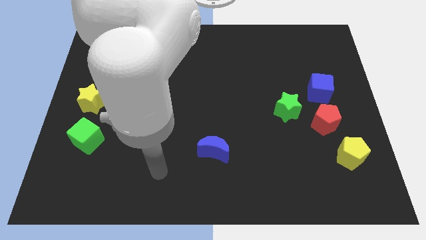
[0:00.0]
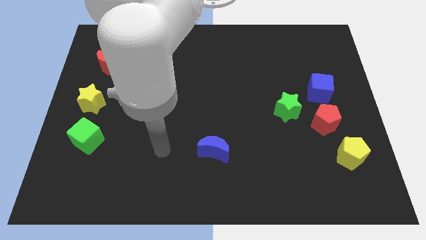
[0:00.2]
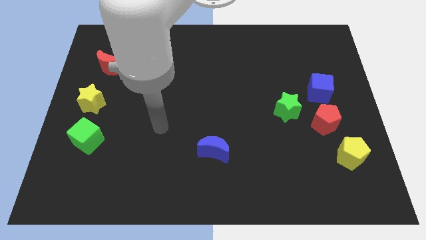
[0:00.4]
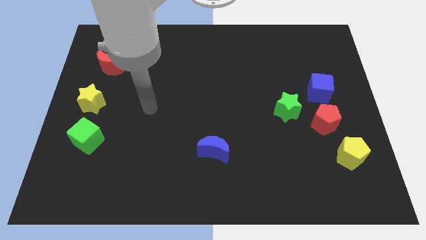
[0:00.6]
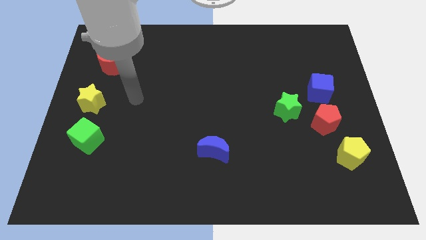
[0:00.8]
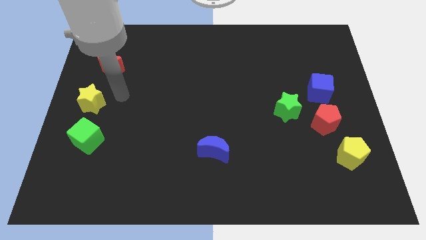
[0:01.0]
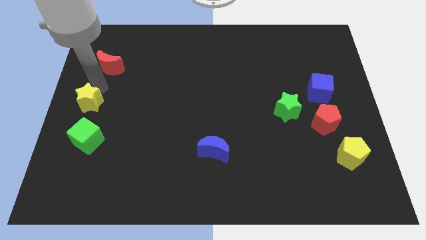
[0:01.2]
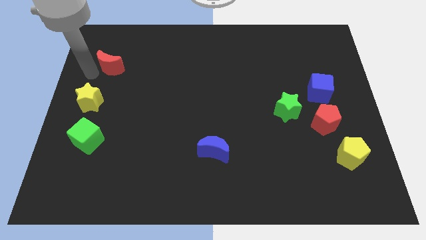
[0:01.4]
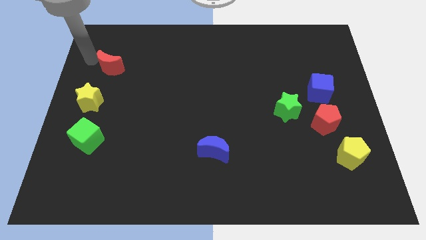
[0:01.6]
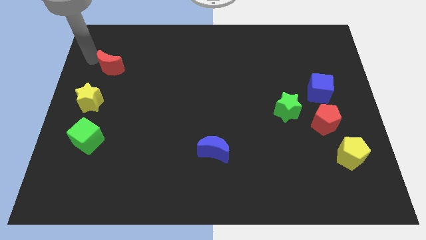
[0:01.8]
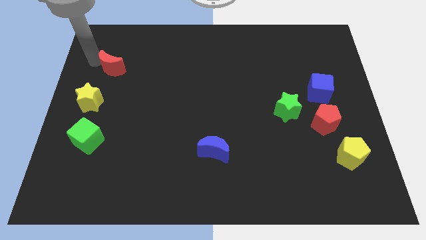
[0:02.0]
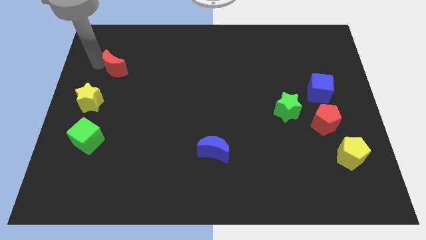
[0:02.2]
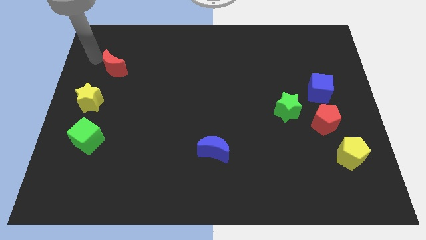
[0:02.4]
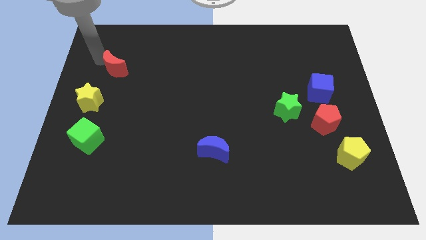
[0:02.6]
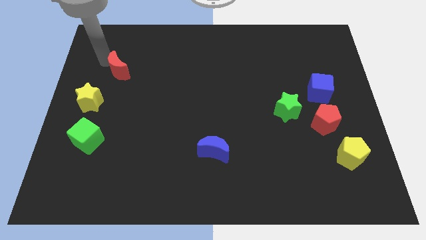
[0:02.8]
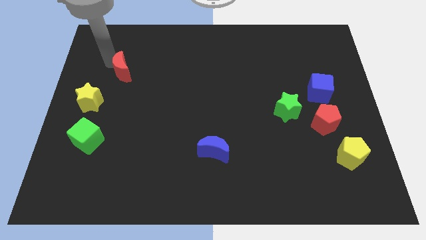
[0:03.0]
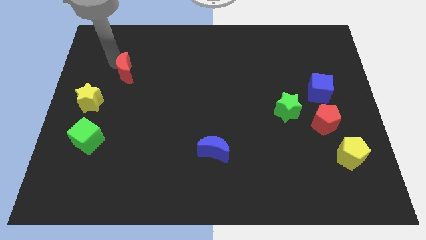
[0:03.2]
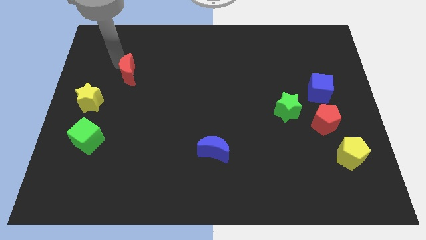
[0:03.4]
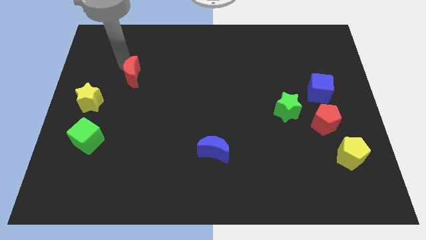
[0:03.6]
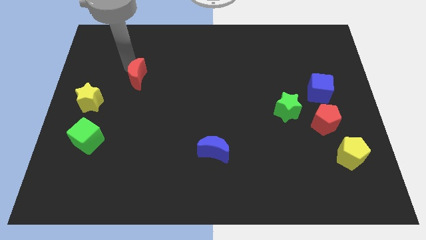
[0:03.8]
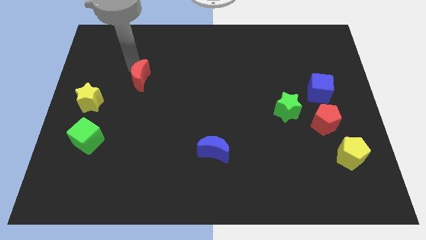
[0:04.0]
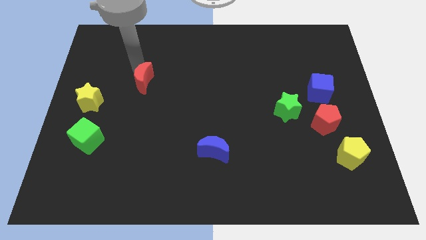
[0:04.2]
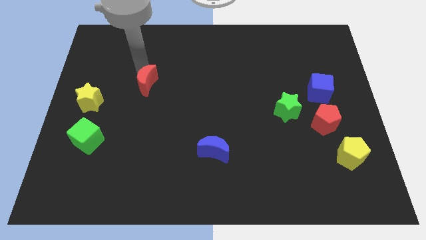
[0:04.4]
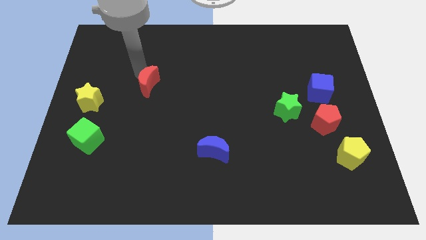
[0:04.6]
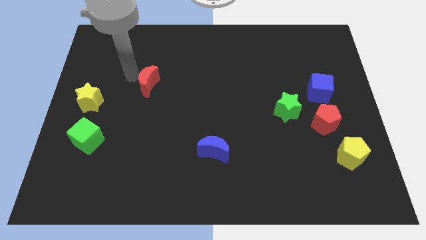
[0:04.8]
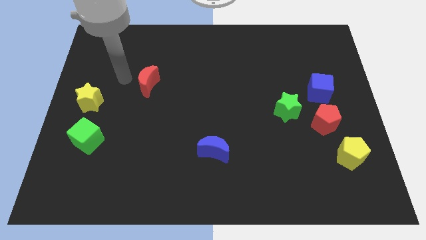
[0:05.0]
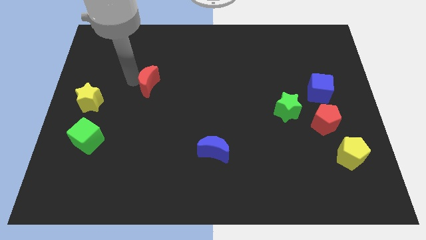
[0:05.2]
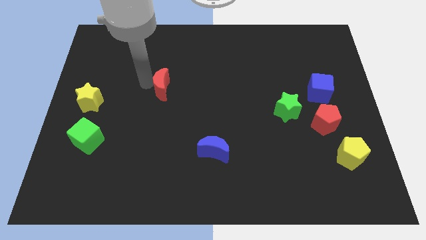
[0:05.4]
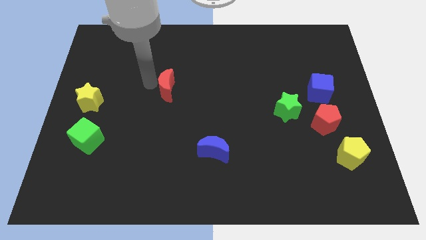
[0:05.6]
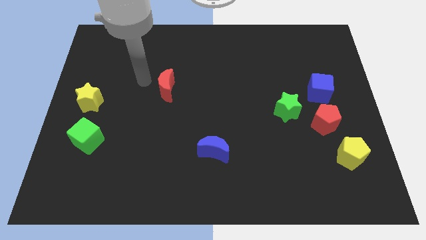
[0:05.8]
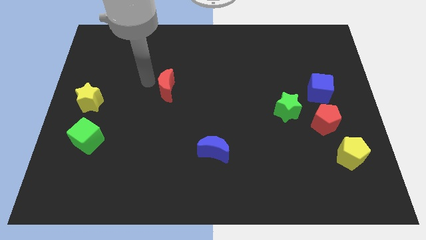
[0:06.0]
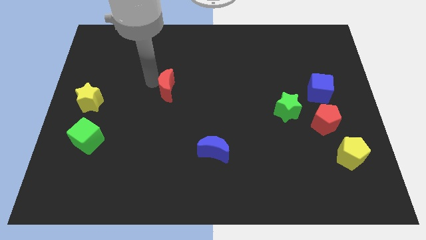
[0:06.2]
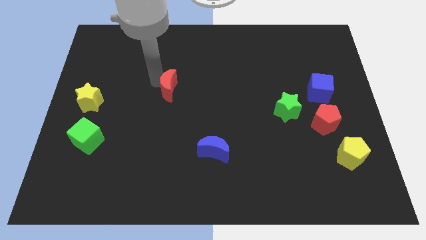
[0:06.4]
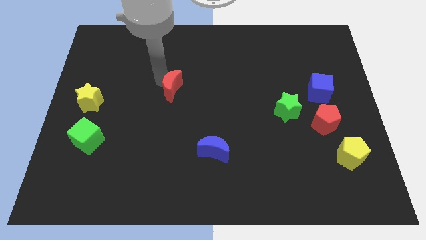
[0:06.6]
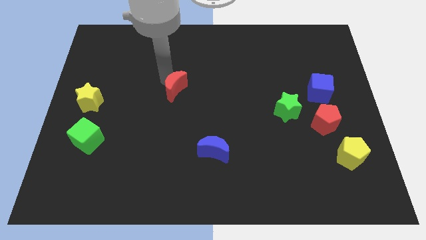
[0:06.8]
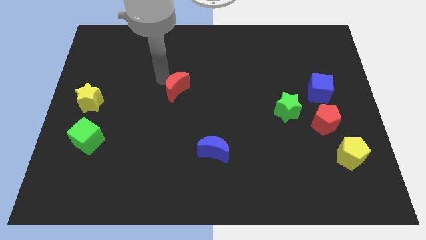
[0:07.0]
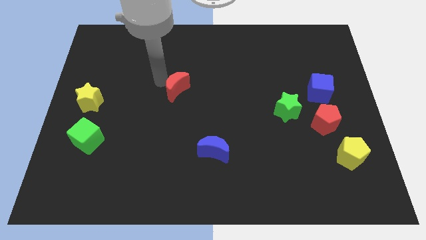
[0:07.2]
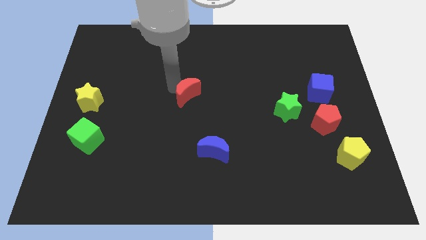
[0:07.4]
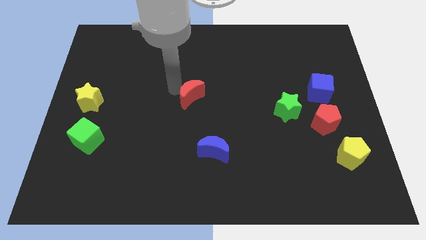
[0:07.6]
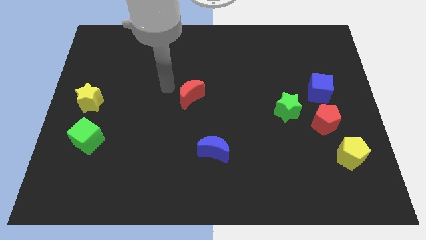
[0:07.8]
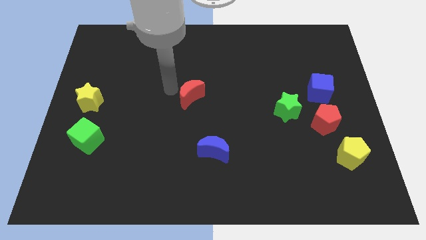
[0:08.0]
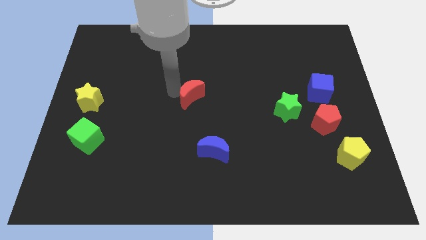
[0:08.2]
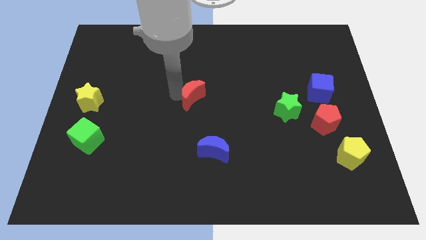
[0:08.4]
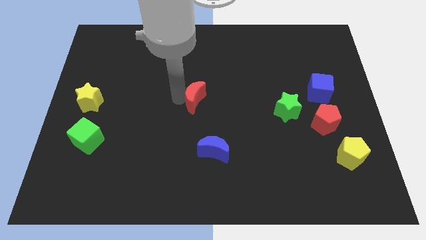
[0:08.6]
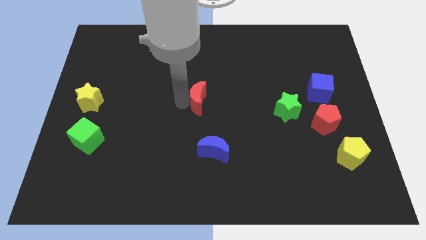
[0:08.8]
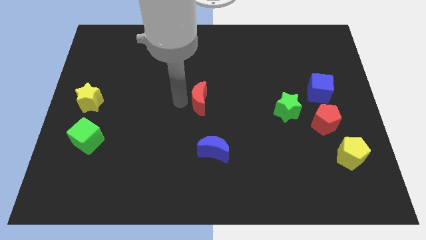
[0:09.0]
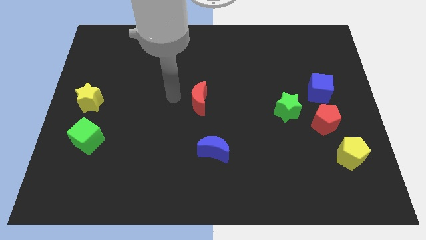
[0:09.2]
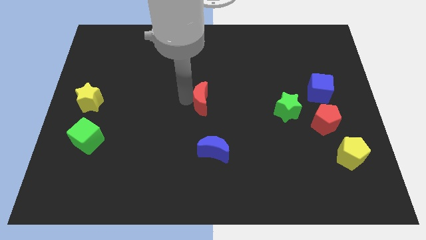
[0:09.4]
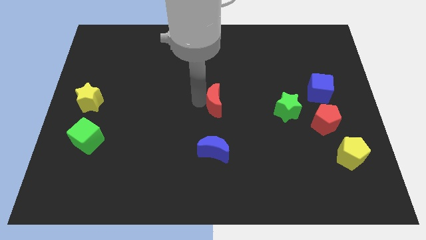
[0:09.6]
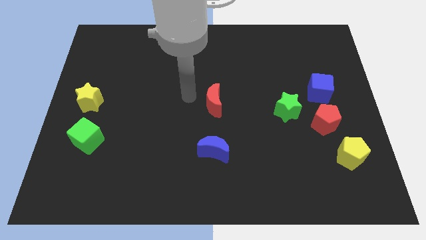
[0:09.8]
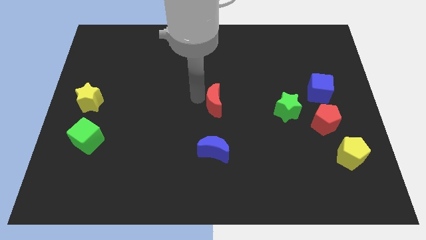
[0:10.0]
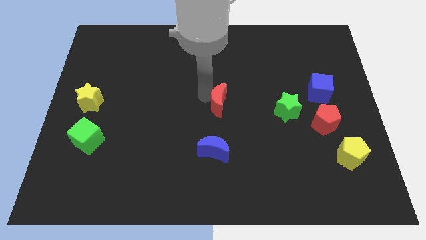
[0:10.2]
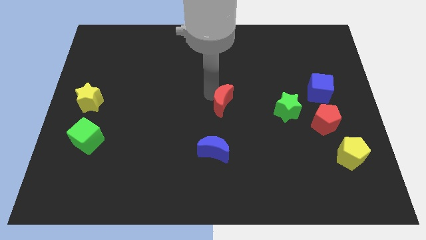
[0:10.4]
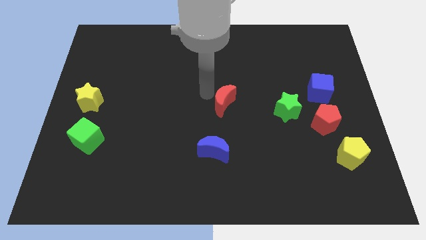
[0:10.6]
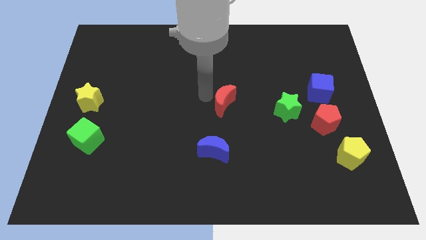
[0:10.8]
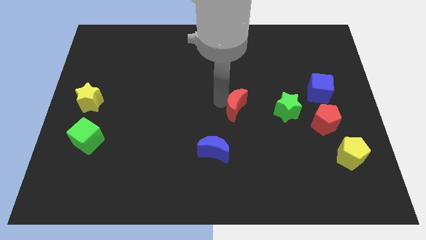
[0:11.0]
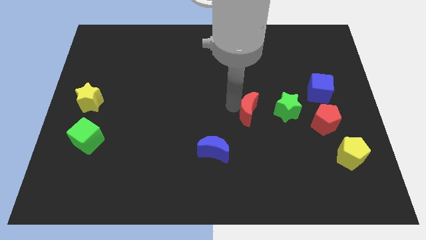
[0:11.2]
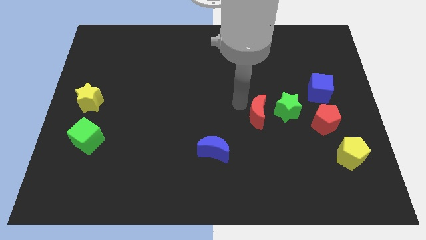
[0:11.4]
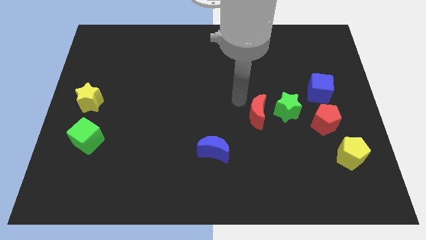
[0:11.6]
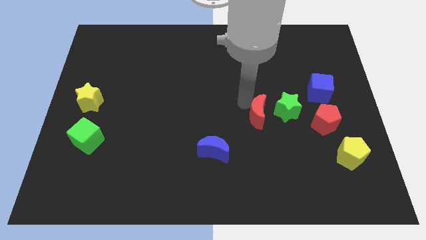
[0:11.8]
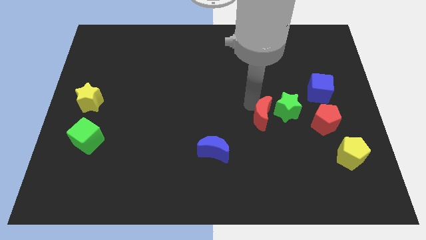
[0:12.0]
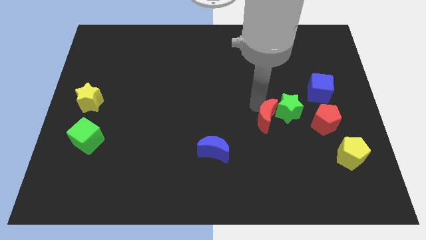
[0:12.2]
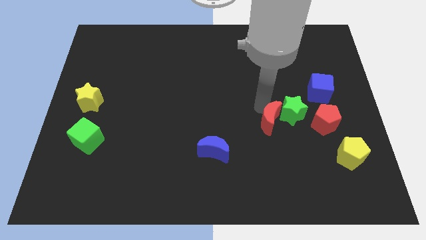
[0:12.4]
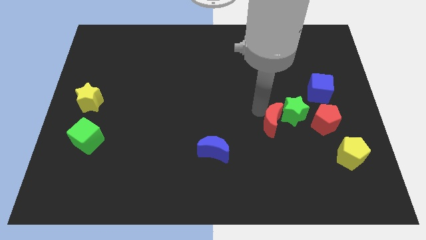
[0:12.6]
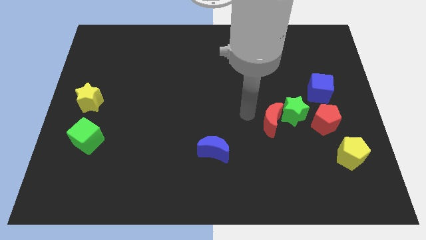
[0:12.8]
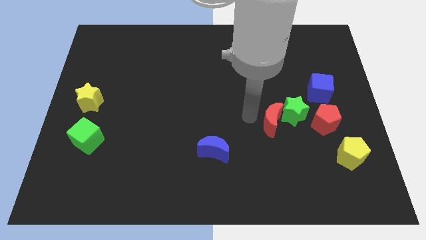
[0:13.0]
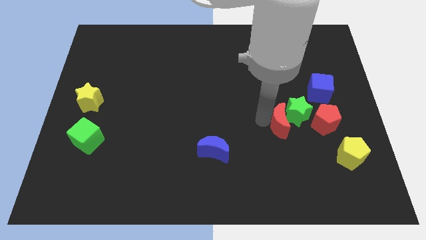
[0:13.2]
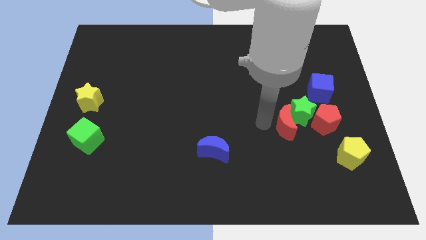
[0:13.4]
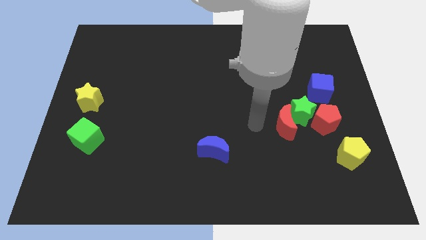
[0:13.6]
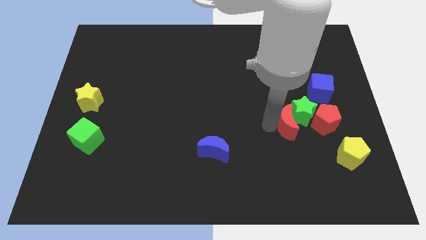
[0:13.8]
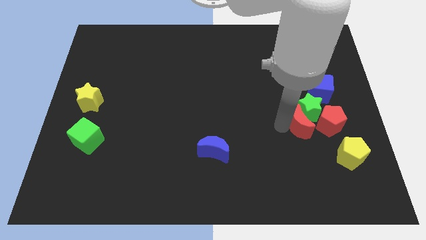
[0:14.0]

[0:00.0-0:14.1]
move the red moon diagonally up and to the left of the yellow pentagon
